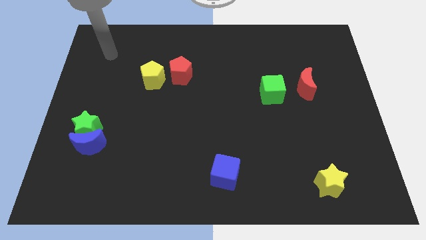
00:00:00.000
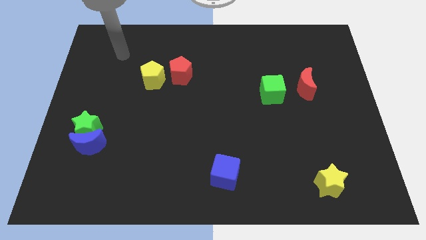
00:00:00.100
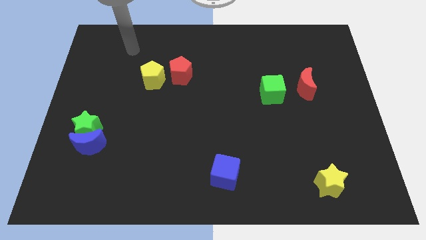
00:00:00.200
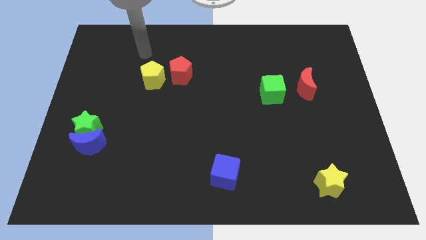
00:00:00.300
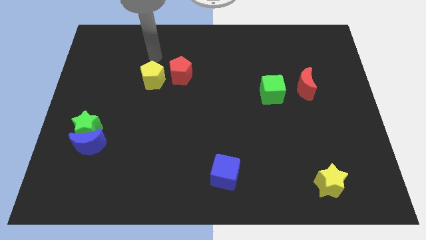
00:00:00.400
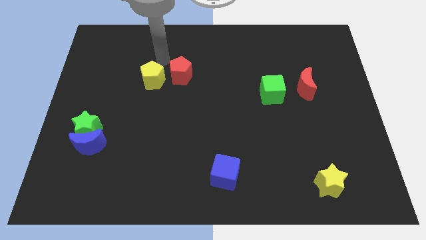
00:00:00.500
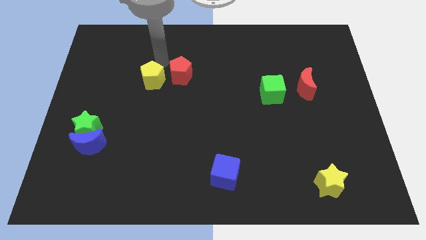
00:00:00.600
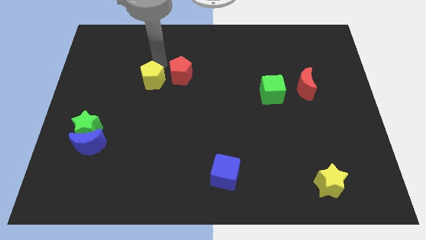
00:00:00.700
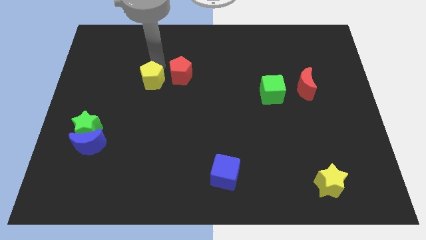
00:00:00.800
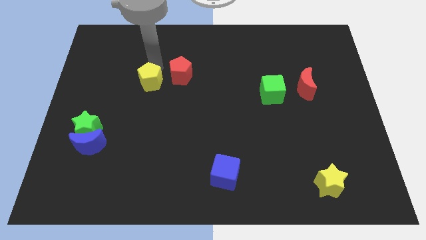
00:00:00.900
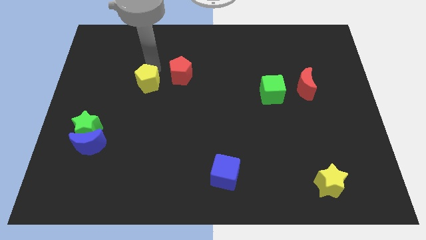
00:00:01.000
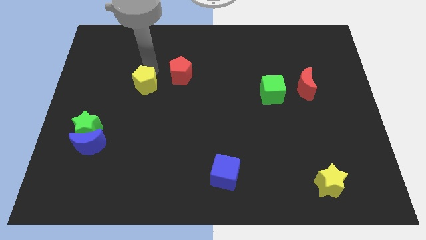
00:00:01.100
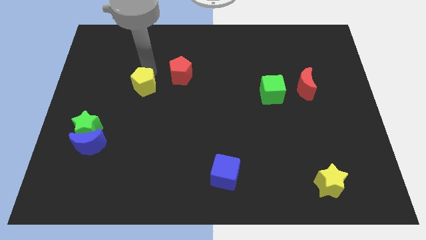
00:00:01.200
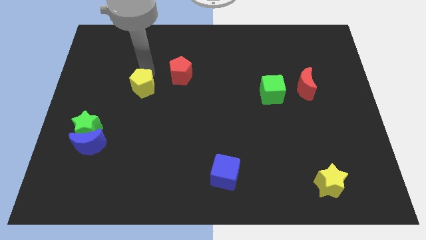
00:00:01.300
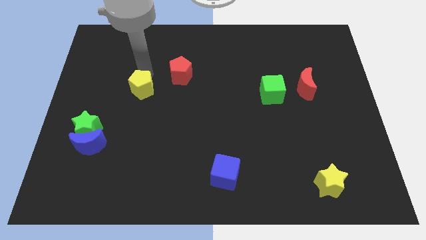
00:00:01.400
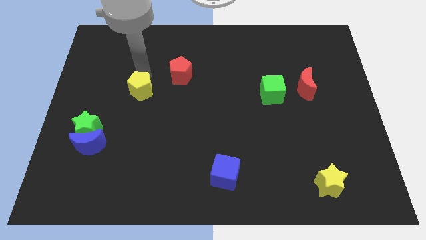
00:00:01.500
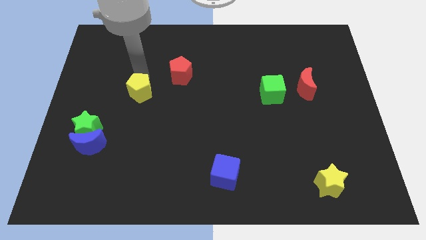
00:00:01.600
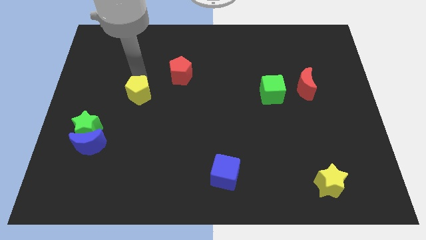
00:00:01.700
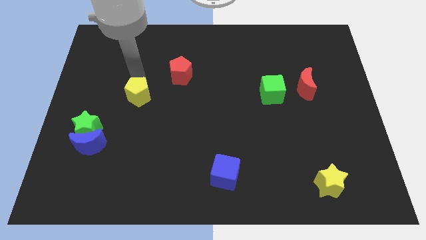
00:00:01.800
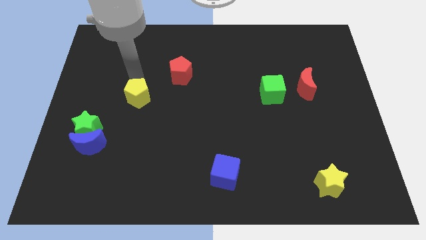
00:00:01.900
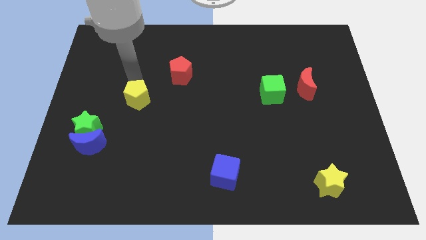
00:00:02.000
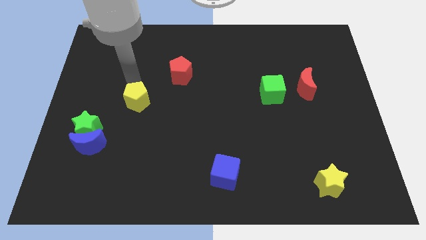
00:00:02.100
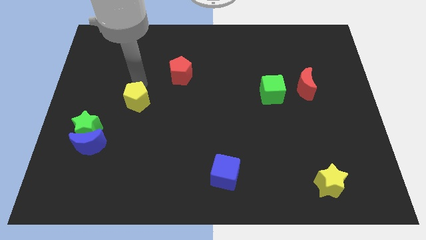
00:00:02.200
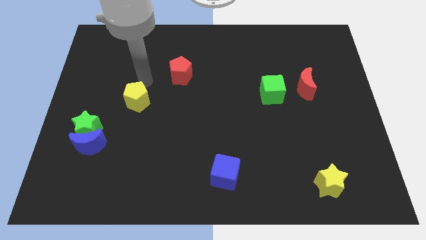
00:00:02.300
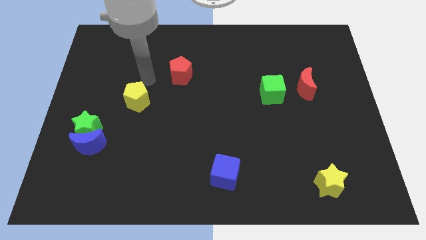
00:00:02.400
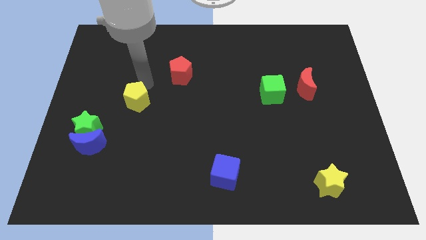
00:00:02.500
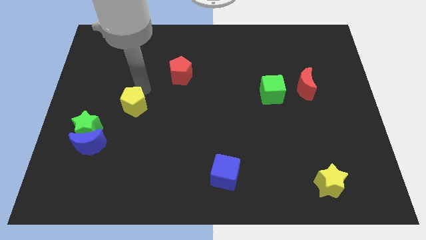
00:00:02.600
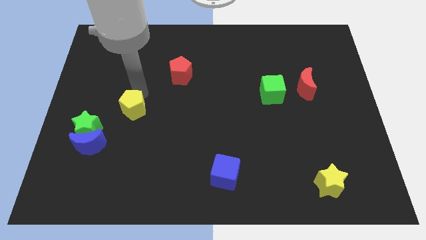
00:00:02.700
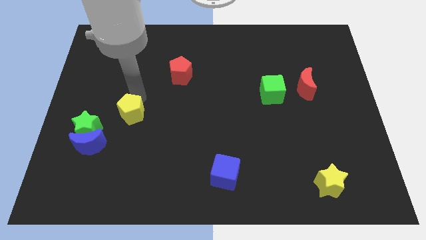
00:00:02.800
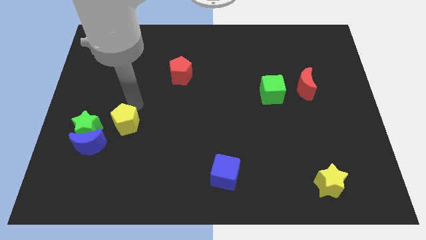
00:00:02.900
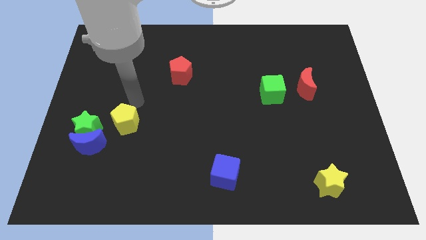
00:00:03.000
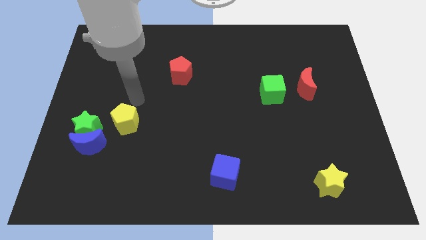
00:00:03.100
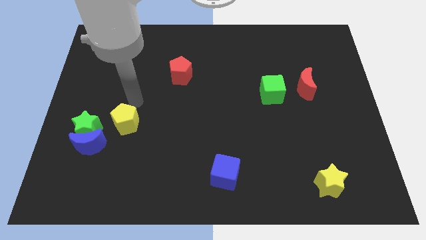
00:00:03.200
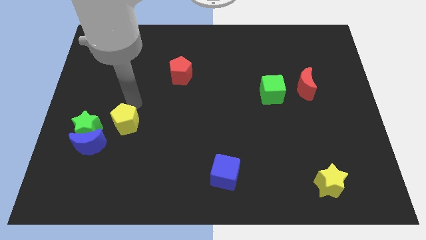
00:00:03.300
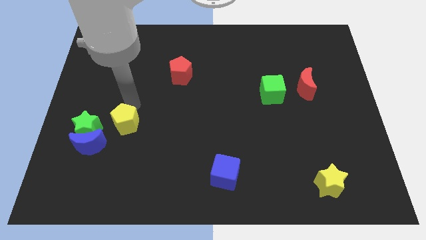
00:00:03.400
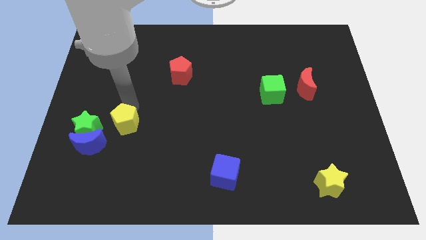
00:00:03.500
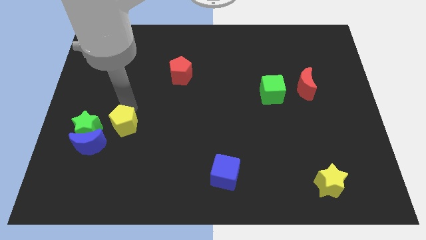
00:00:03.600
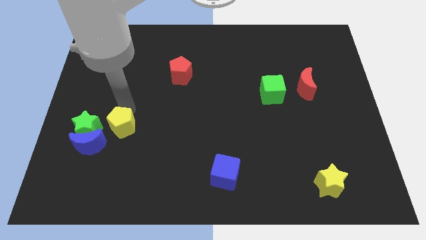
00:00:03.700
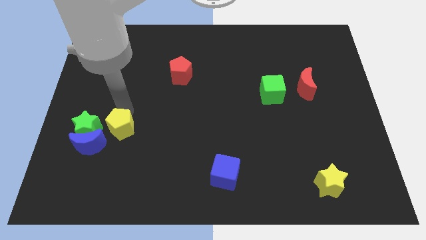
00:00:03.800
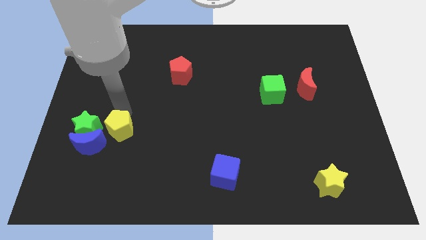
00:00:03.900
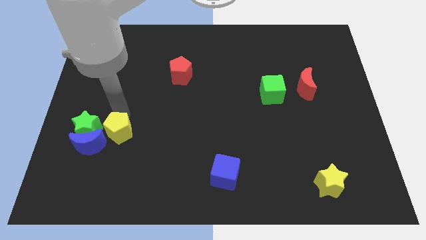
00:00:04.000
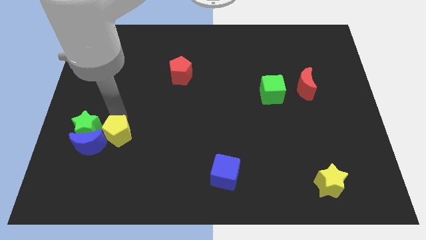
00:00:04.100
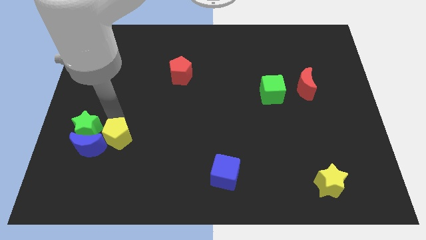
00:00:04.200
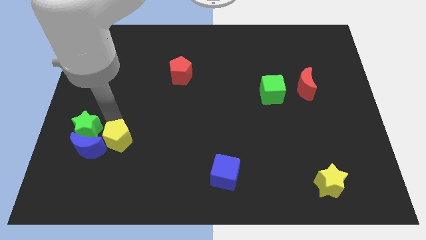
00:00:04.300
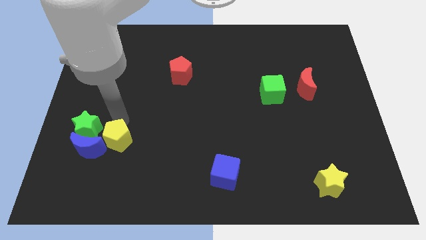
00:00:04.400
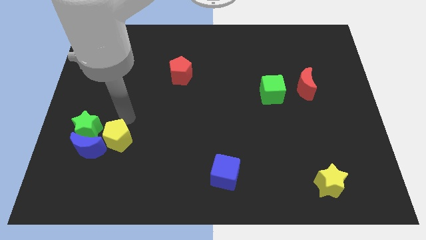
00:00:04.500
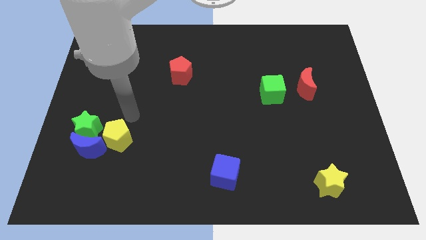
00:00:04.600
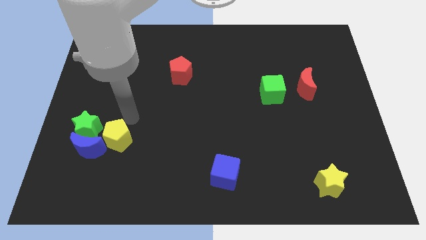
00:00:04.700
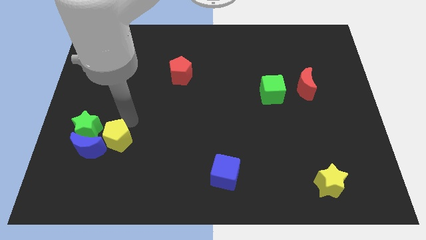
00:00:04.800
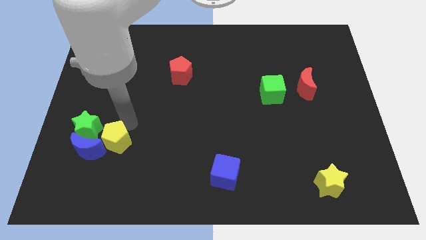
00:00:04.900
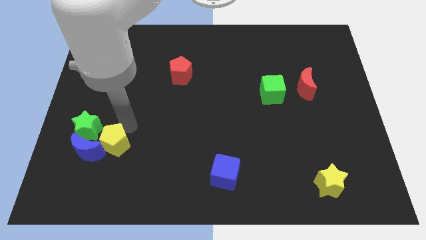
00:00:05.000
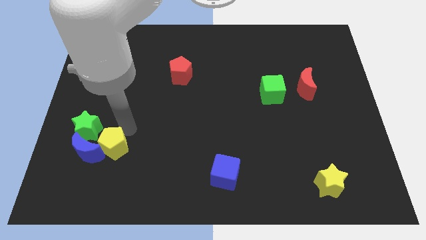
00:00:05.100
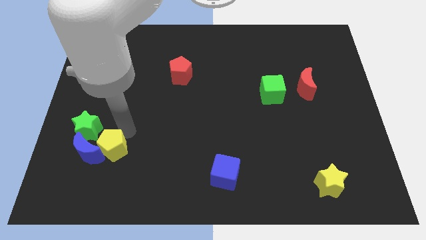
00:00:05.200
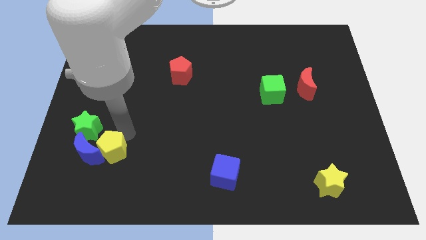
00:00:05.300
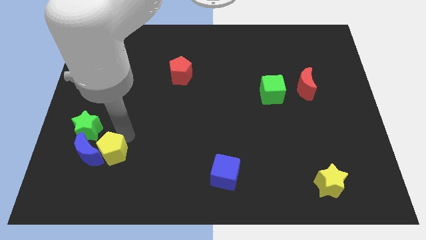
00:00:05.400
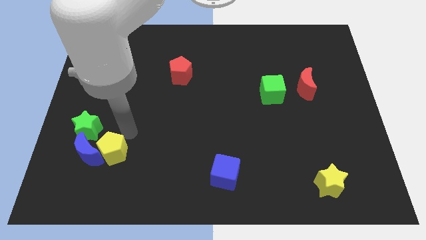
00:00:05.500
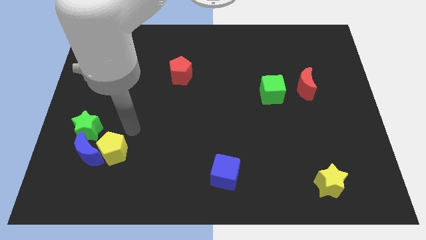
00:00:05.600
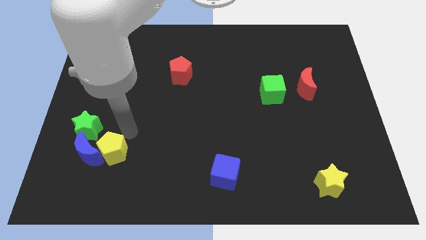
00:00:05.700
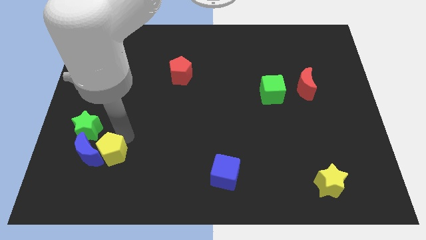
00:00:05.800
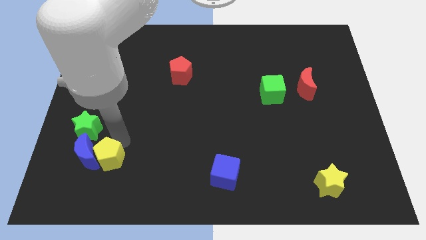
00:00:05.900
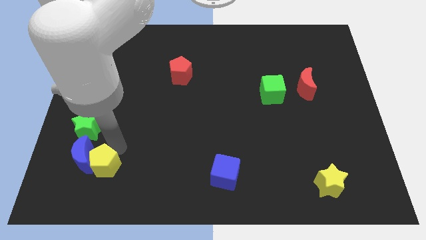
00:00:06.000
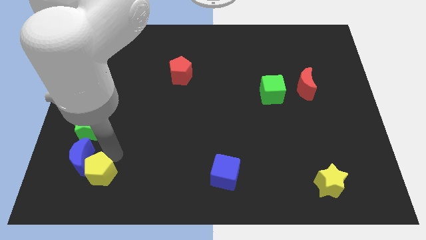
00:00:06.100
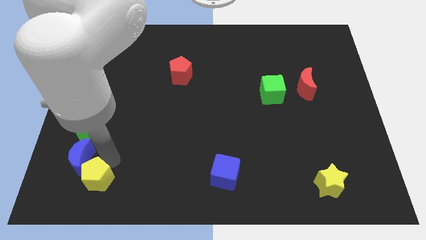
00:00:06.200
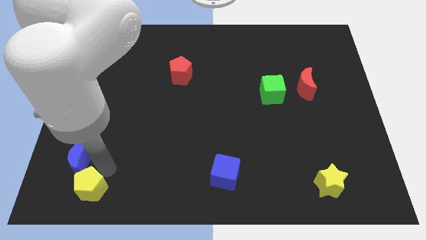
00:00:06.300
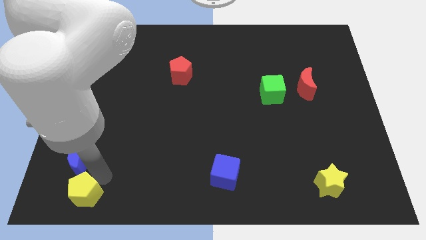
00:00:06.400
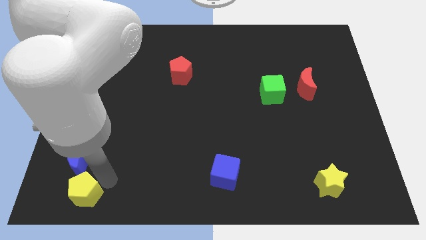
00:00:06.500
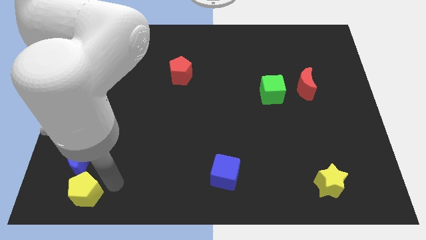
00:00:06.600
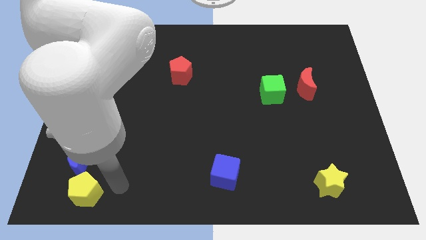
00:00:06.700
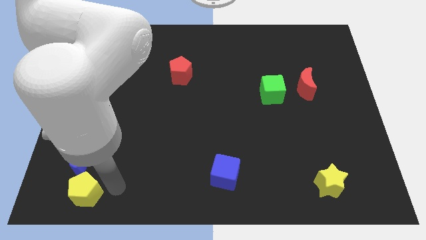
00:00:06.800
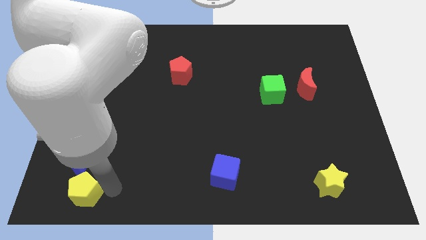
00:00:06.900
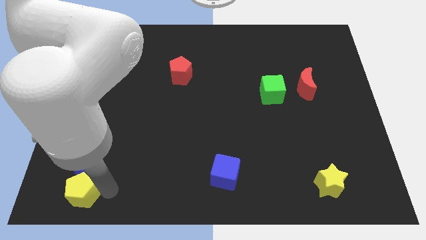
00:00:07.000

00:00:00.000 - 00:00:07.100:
push the yellow pentagon to the bottom left corner
